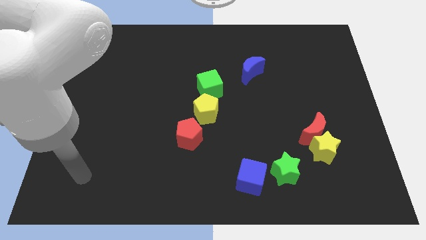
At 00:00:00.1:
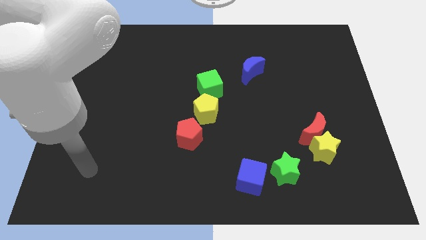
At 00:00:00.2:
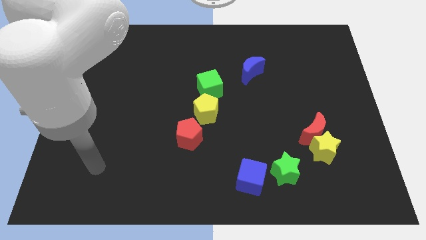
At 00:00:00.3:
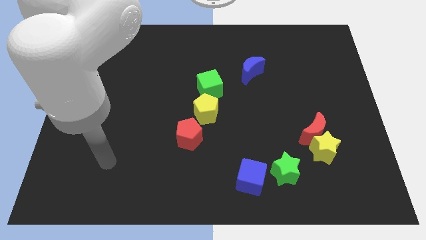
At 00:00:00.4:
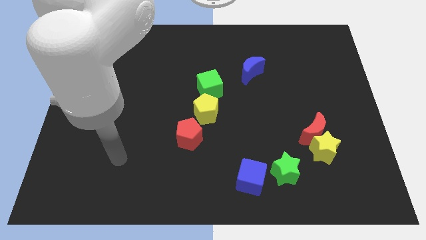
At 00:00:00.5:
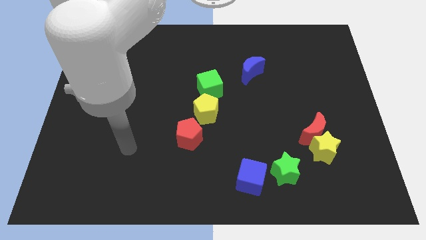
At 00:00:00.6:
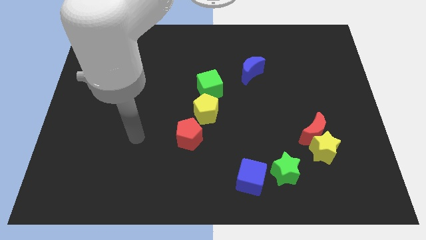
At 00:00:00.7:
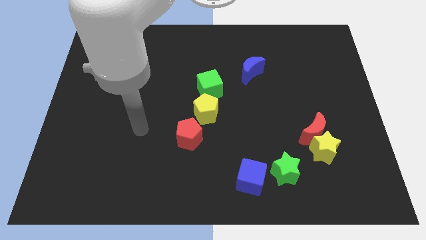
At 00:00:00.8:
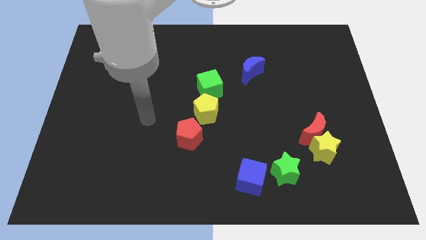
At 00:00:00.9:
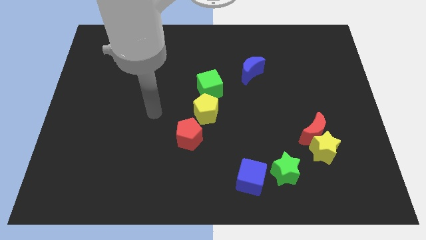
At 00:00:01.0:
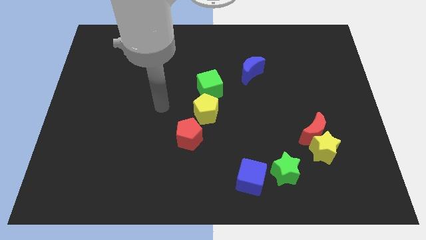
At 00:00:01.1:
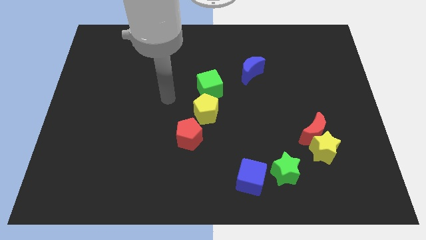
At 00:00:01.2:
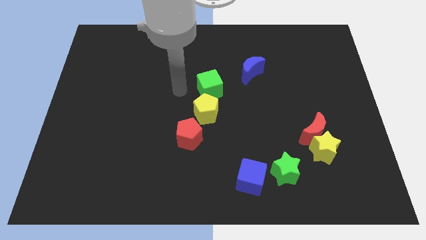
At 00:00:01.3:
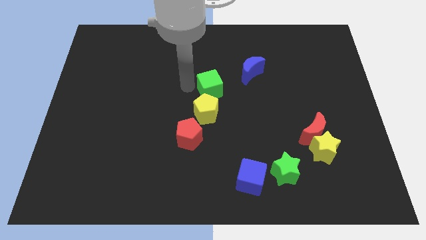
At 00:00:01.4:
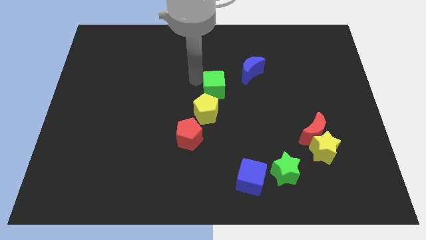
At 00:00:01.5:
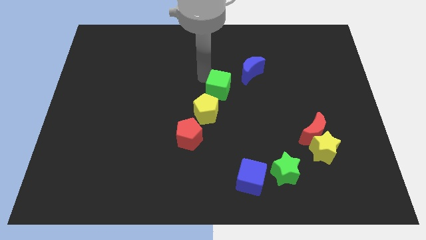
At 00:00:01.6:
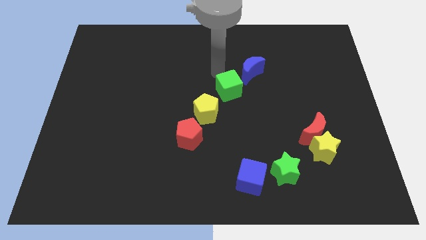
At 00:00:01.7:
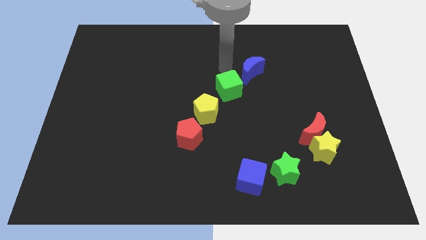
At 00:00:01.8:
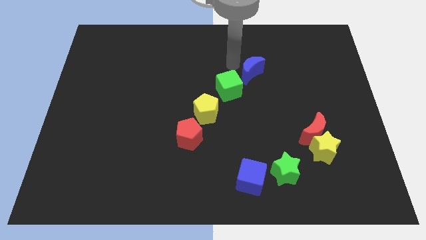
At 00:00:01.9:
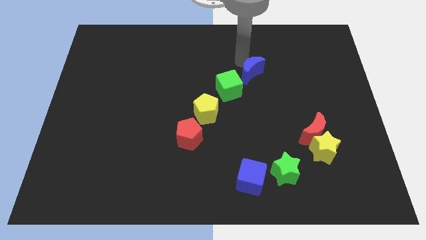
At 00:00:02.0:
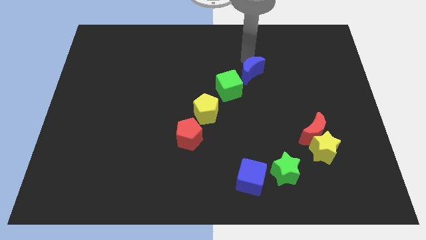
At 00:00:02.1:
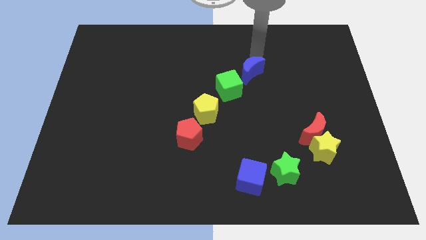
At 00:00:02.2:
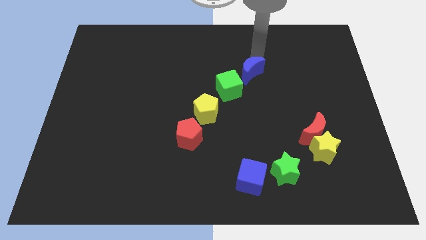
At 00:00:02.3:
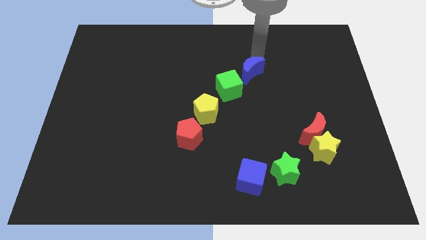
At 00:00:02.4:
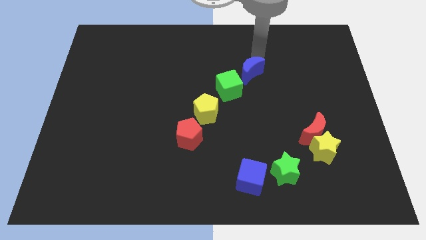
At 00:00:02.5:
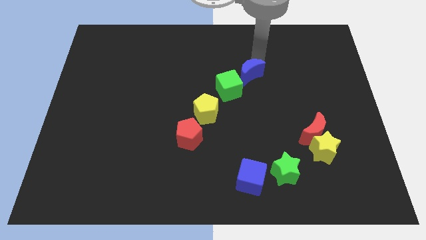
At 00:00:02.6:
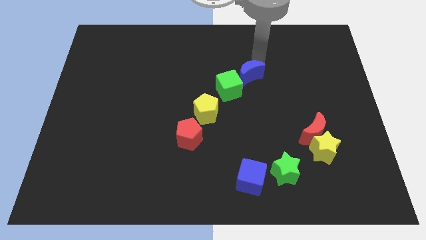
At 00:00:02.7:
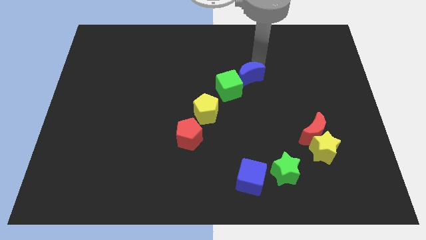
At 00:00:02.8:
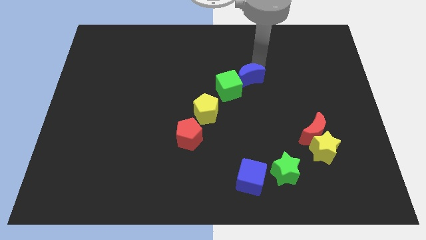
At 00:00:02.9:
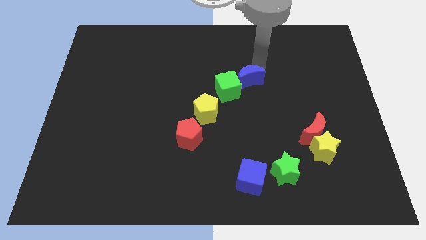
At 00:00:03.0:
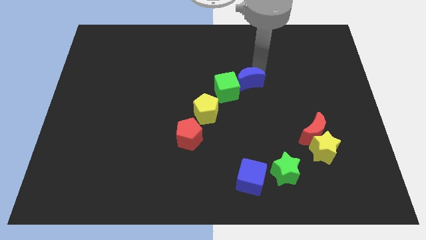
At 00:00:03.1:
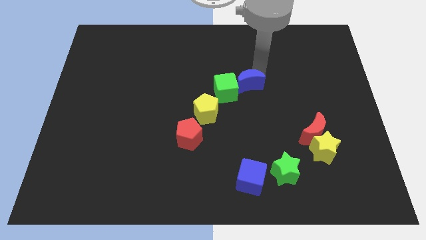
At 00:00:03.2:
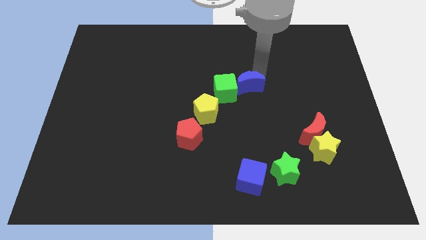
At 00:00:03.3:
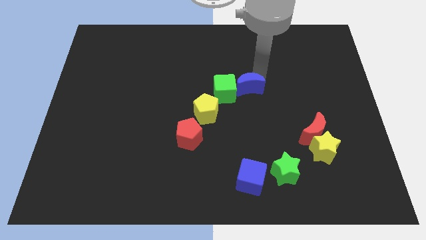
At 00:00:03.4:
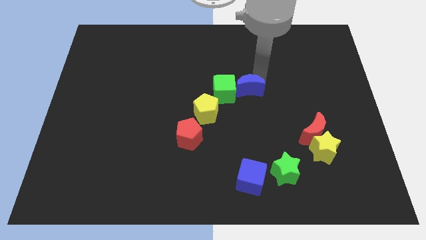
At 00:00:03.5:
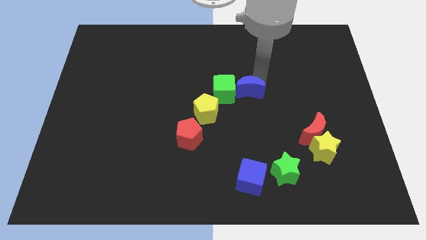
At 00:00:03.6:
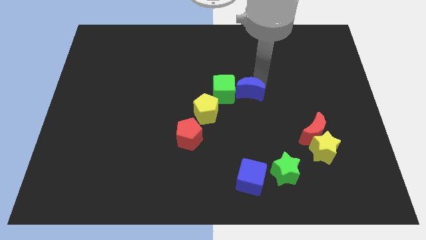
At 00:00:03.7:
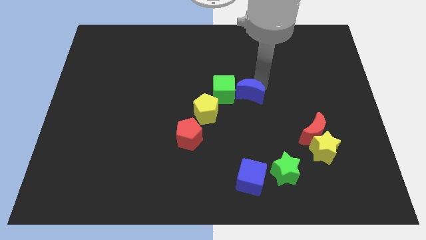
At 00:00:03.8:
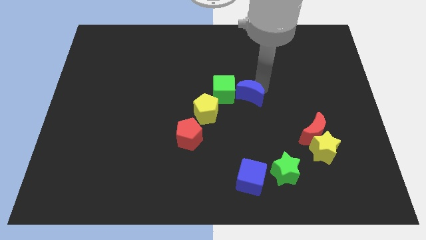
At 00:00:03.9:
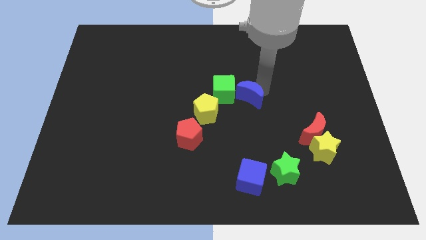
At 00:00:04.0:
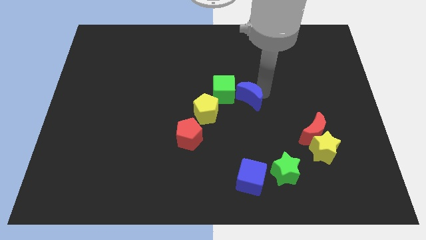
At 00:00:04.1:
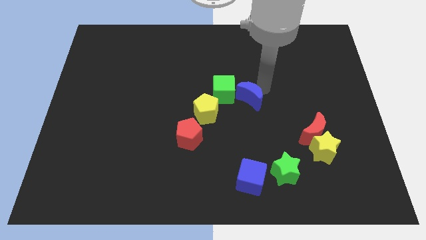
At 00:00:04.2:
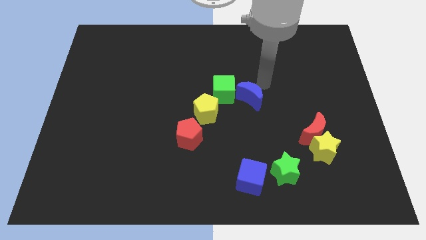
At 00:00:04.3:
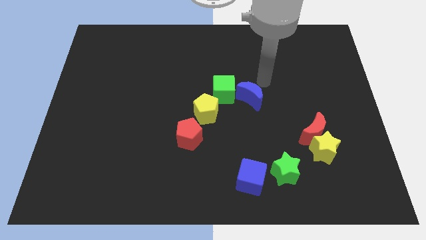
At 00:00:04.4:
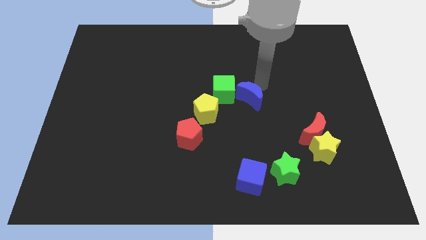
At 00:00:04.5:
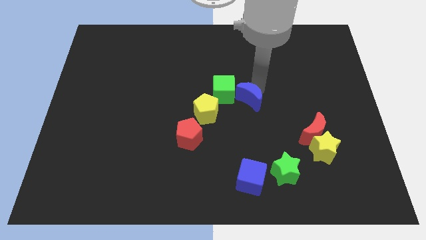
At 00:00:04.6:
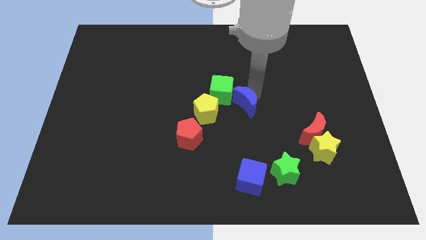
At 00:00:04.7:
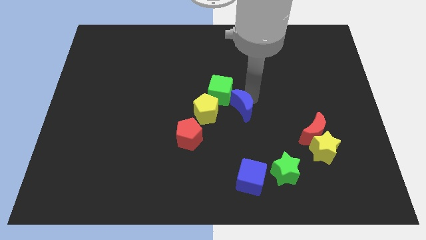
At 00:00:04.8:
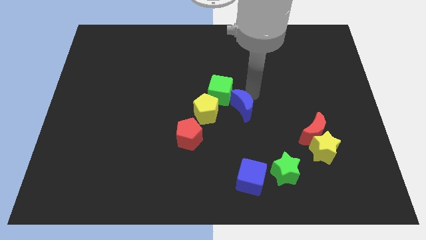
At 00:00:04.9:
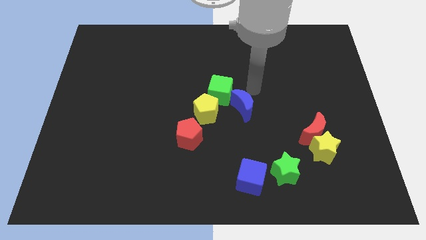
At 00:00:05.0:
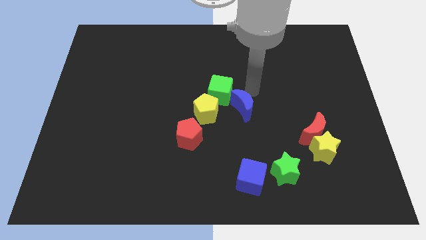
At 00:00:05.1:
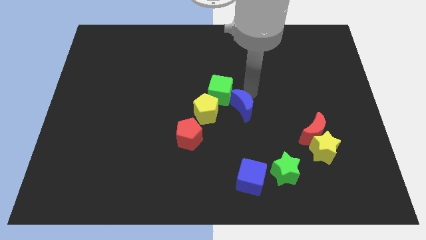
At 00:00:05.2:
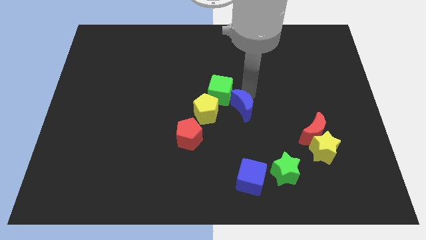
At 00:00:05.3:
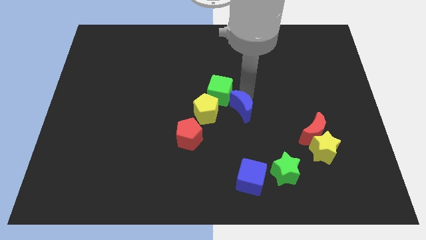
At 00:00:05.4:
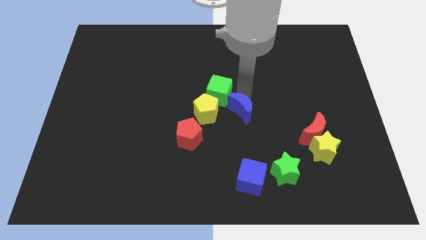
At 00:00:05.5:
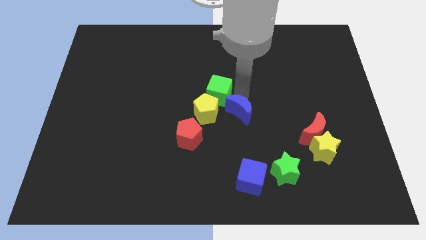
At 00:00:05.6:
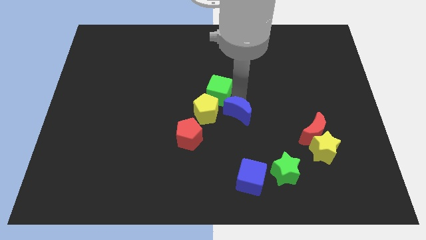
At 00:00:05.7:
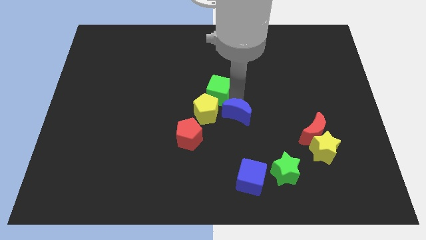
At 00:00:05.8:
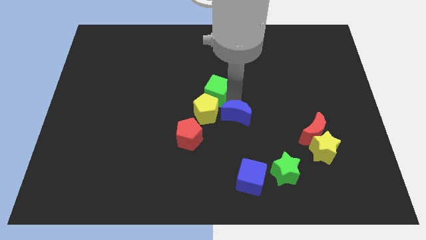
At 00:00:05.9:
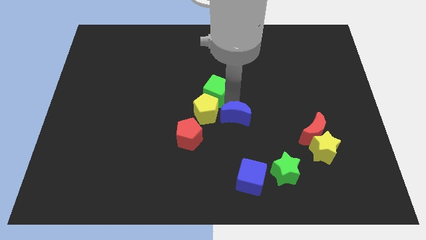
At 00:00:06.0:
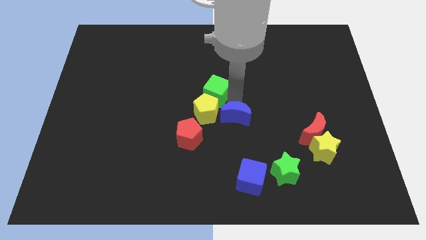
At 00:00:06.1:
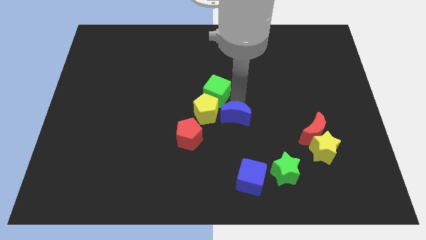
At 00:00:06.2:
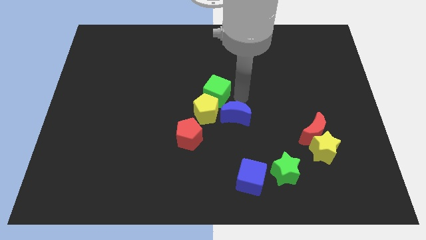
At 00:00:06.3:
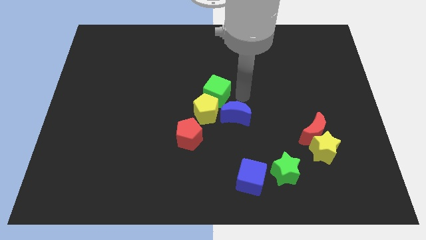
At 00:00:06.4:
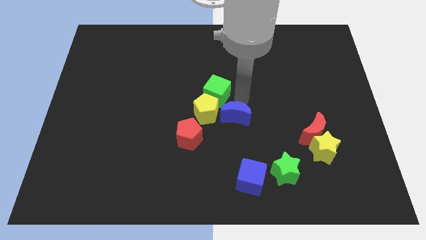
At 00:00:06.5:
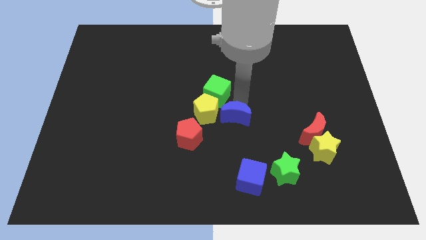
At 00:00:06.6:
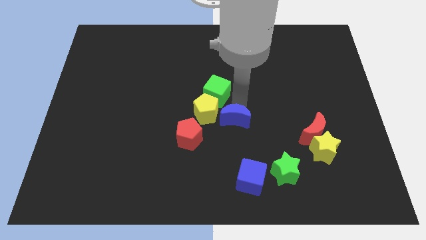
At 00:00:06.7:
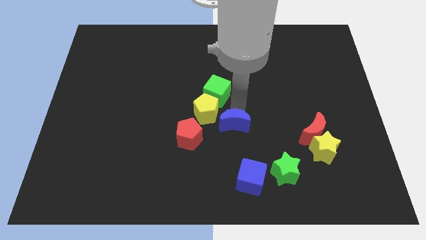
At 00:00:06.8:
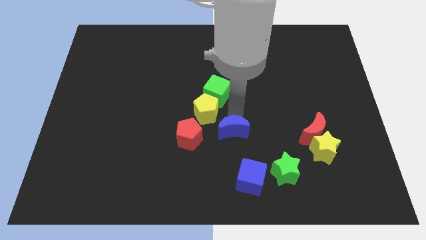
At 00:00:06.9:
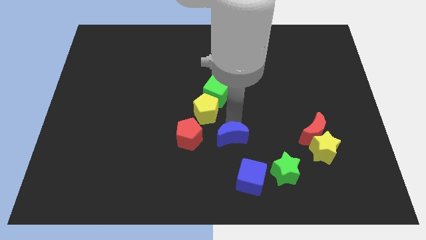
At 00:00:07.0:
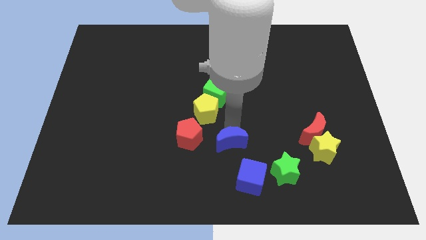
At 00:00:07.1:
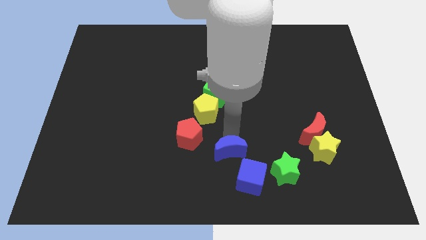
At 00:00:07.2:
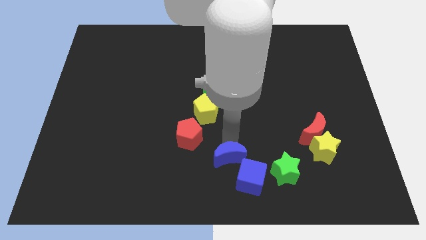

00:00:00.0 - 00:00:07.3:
put the blue moon to the bottom side
